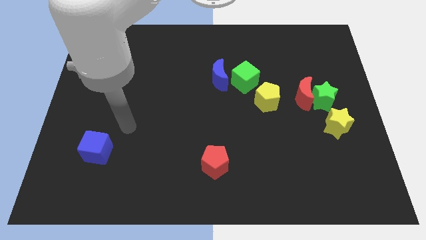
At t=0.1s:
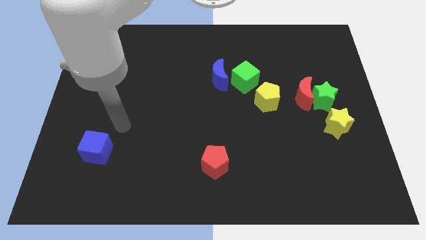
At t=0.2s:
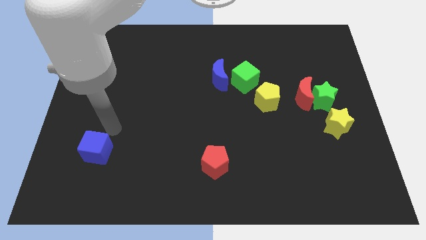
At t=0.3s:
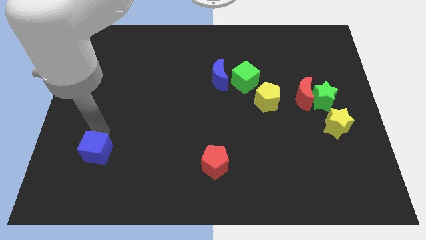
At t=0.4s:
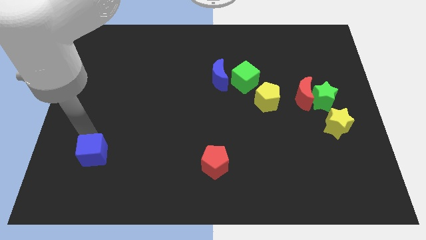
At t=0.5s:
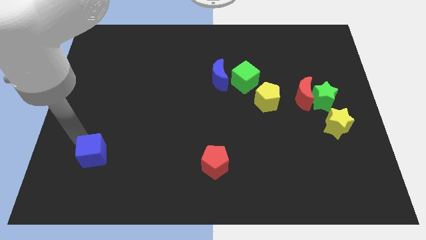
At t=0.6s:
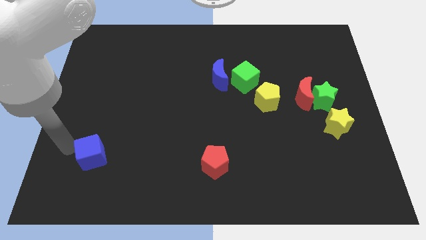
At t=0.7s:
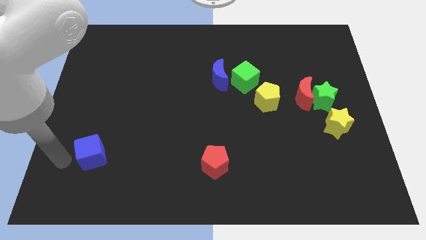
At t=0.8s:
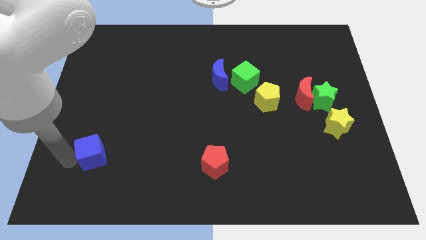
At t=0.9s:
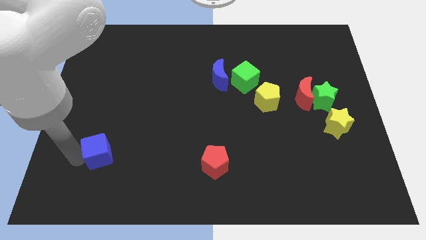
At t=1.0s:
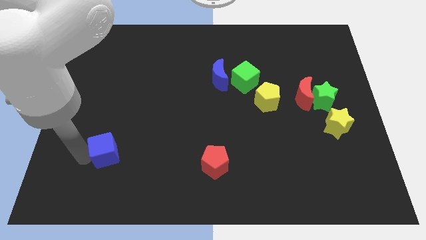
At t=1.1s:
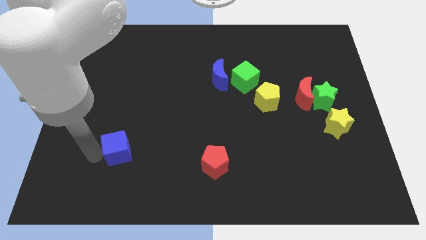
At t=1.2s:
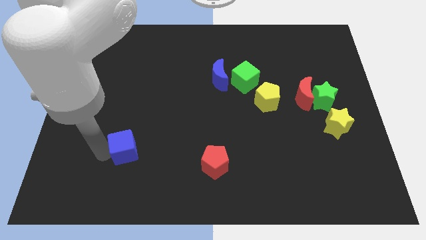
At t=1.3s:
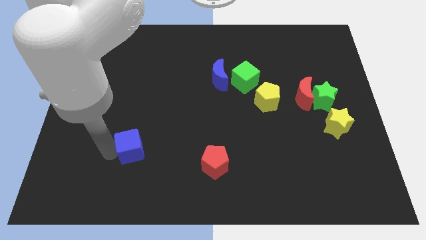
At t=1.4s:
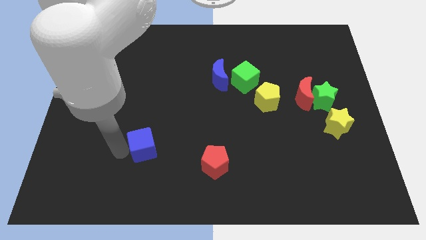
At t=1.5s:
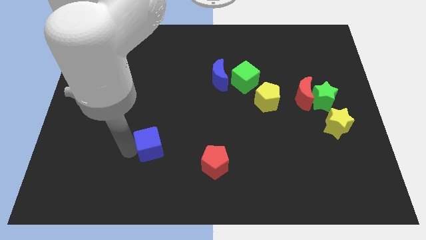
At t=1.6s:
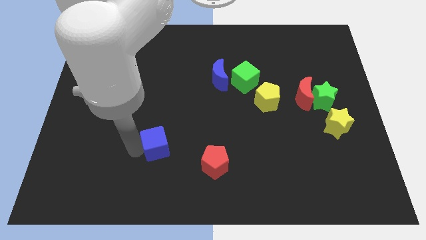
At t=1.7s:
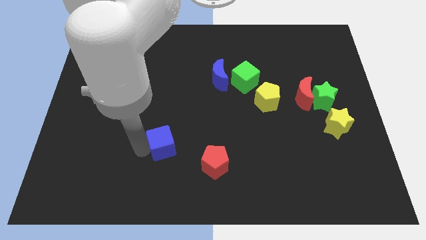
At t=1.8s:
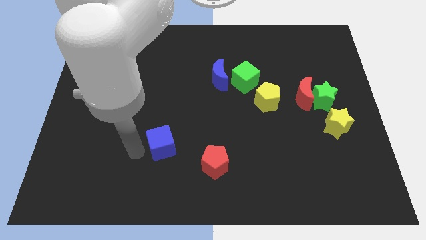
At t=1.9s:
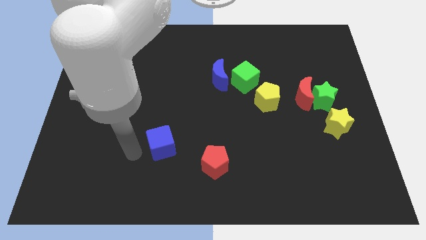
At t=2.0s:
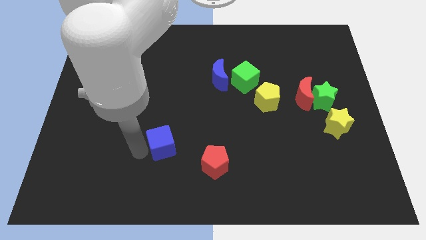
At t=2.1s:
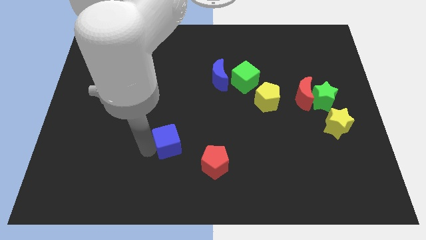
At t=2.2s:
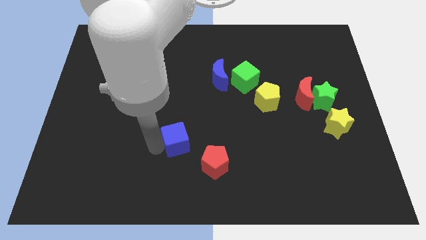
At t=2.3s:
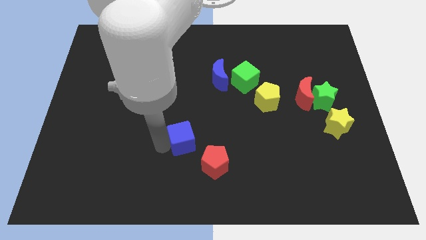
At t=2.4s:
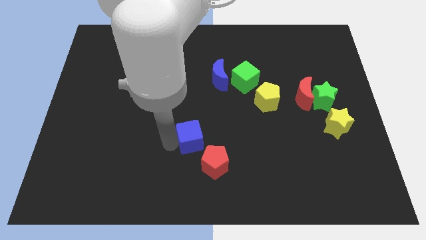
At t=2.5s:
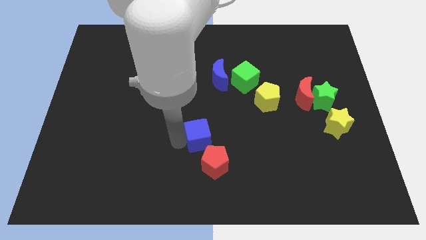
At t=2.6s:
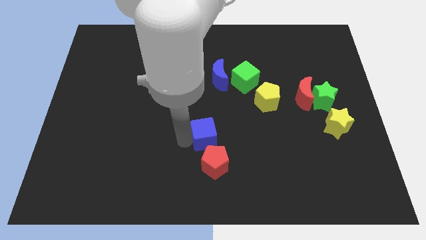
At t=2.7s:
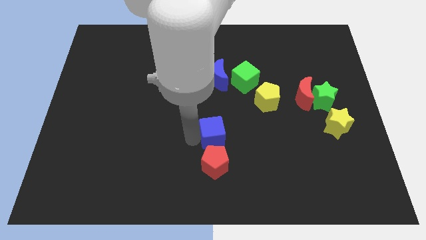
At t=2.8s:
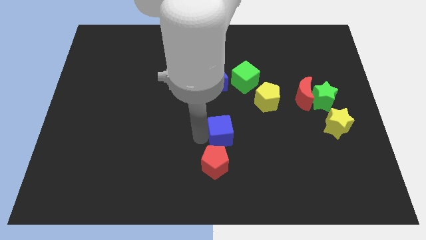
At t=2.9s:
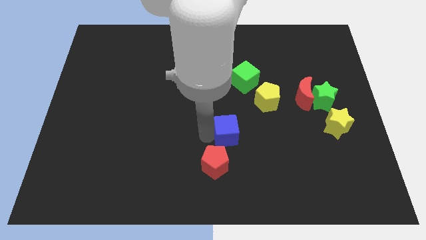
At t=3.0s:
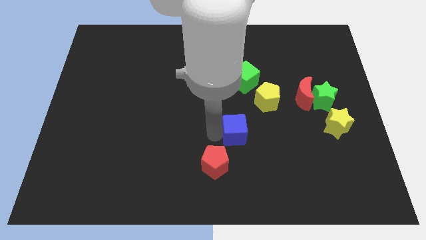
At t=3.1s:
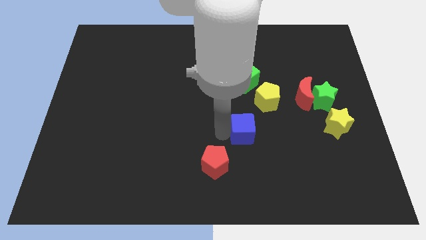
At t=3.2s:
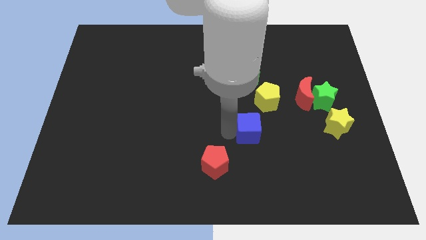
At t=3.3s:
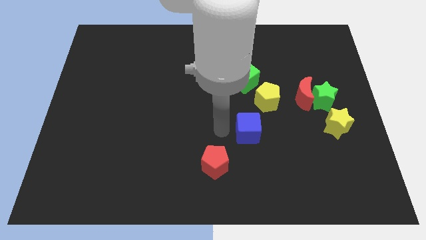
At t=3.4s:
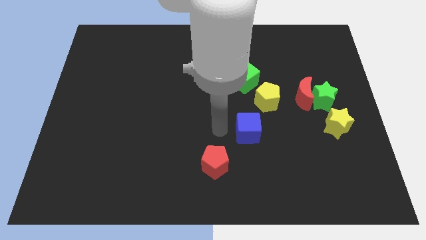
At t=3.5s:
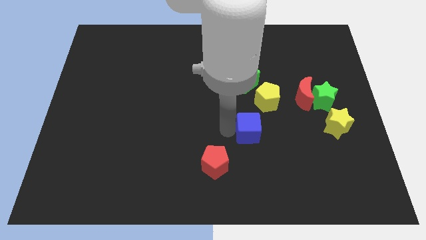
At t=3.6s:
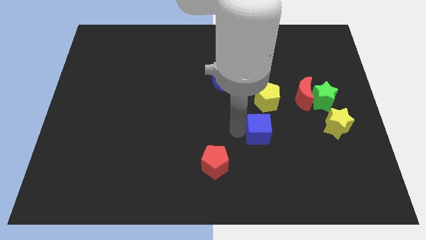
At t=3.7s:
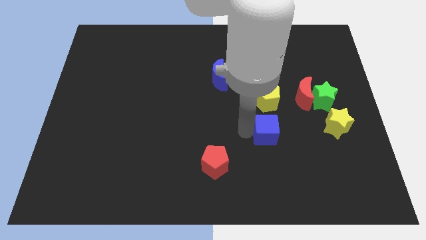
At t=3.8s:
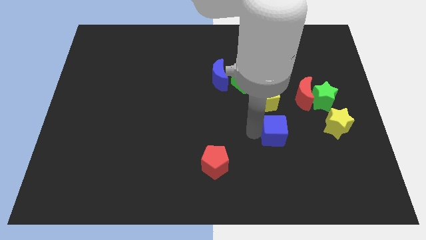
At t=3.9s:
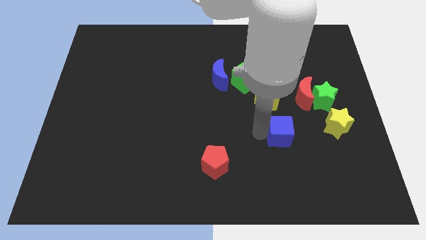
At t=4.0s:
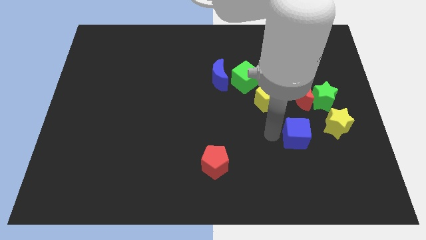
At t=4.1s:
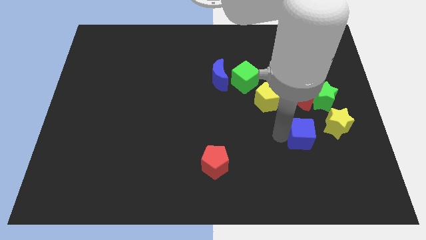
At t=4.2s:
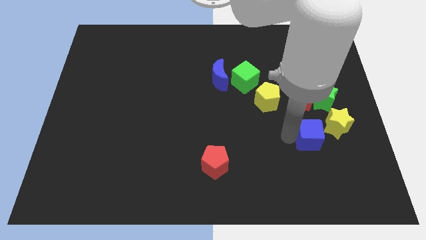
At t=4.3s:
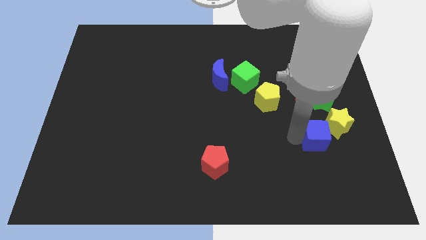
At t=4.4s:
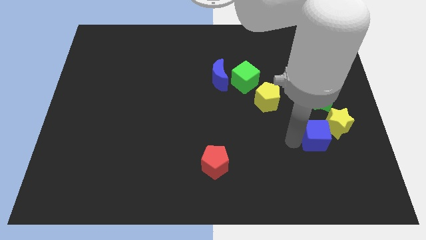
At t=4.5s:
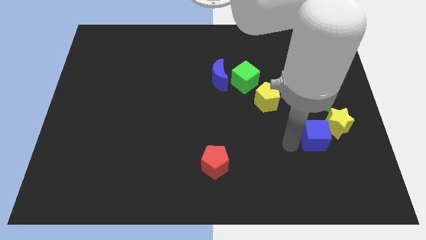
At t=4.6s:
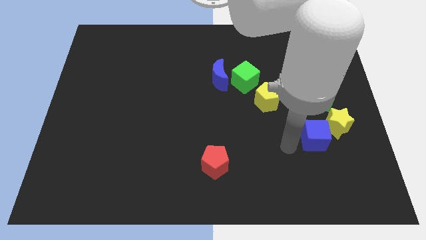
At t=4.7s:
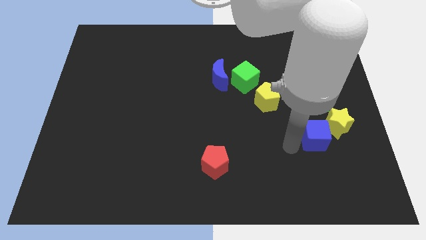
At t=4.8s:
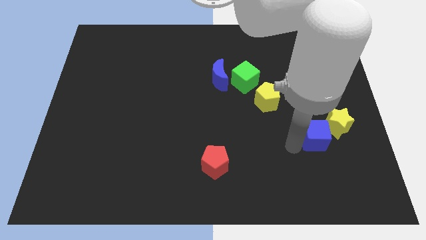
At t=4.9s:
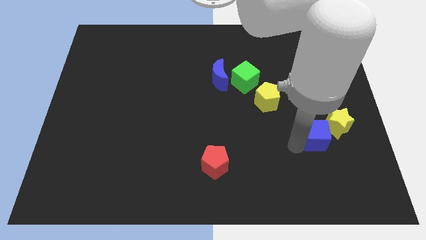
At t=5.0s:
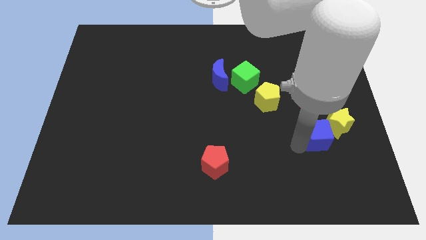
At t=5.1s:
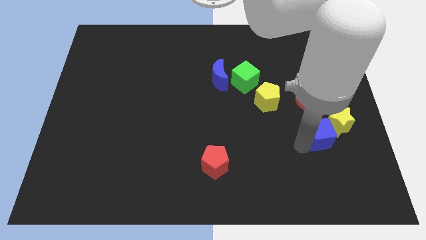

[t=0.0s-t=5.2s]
move the blue cube to the yellow star

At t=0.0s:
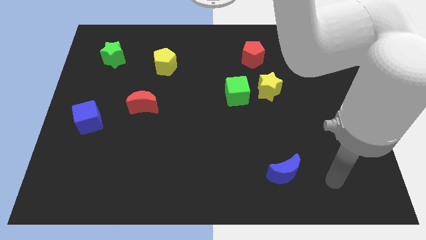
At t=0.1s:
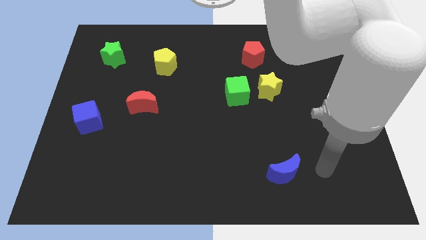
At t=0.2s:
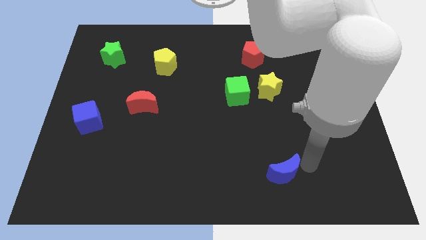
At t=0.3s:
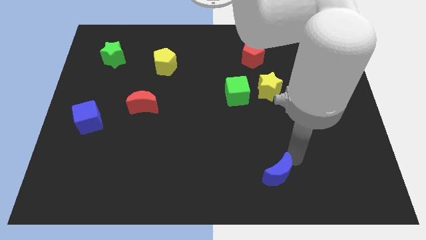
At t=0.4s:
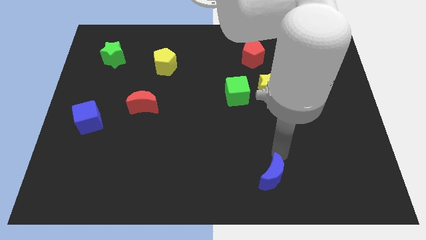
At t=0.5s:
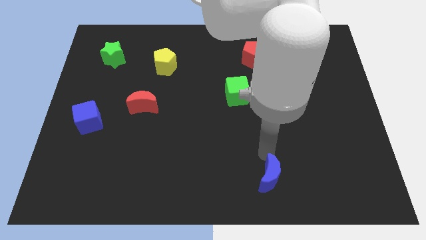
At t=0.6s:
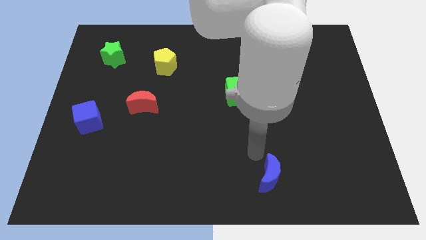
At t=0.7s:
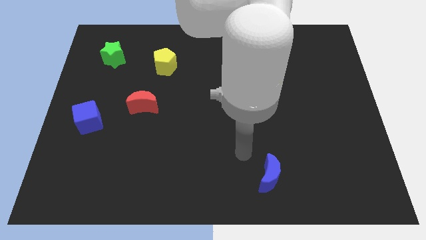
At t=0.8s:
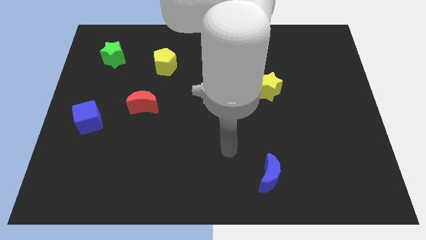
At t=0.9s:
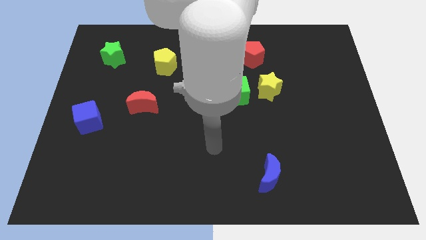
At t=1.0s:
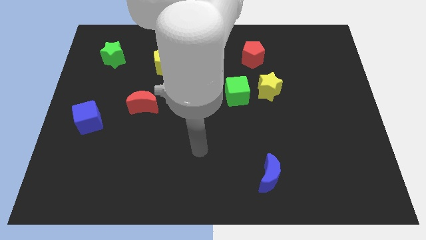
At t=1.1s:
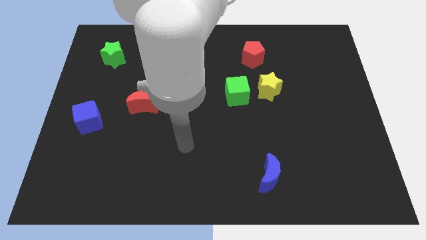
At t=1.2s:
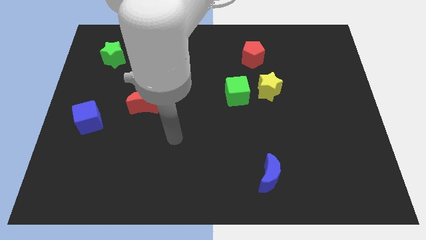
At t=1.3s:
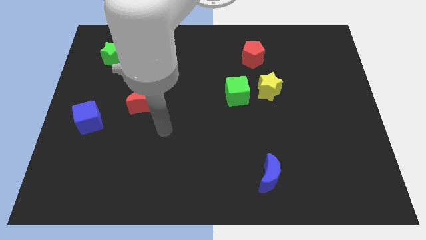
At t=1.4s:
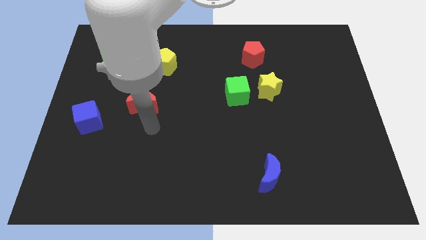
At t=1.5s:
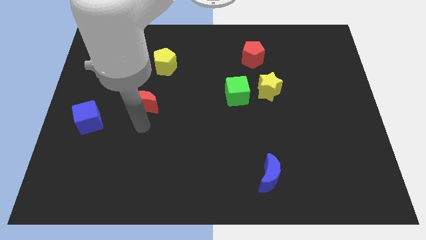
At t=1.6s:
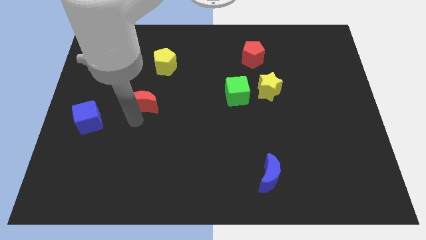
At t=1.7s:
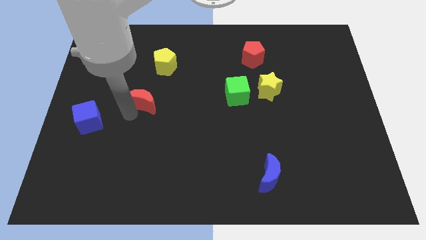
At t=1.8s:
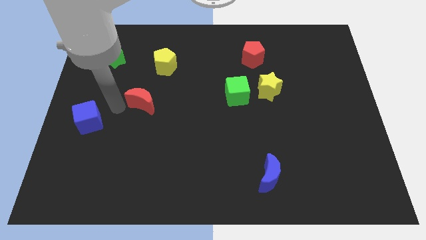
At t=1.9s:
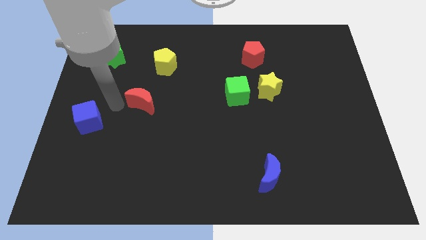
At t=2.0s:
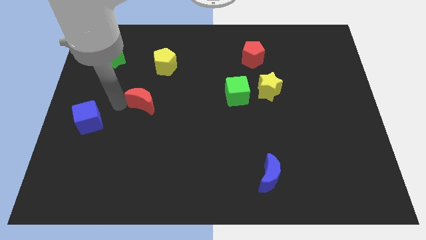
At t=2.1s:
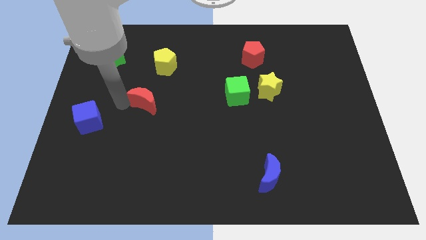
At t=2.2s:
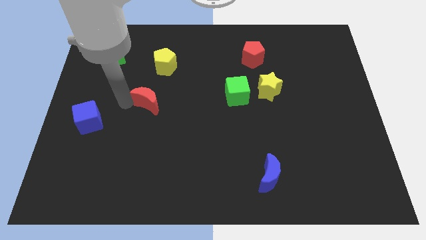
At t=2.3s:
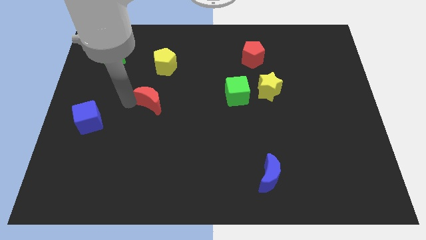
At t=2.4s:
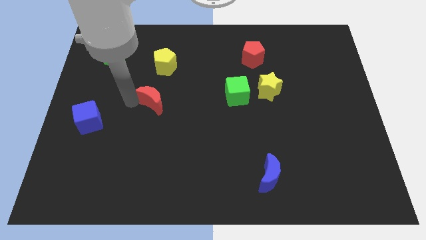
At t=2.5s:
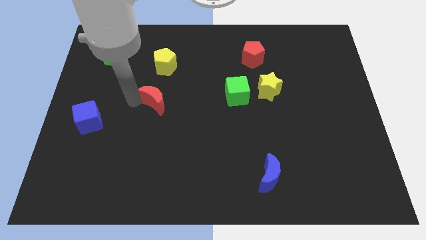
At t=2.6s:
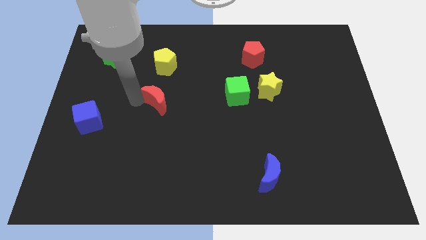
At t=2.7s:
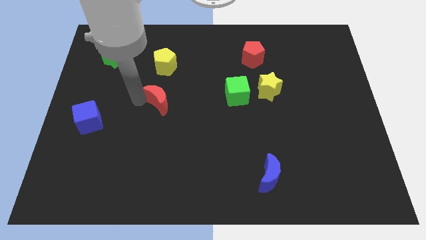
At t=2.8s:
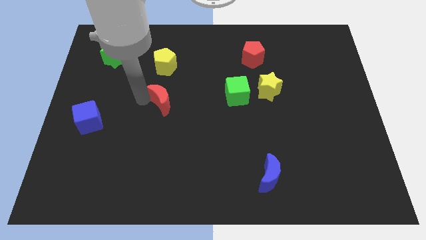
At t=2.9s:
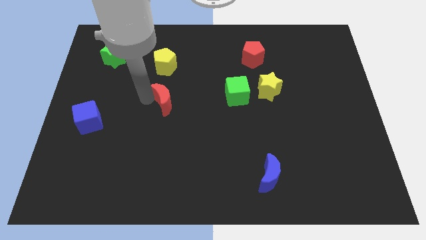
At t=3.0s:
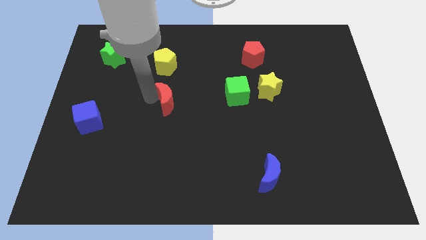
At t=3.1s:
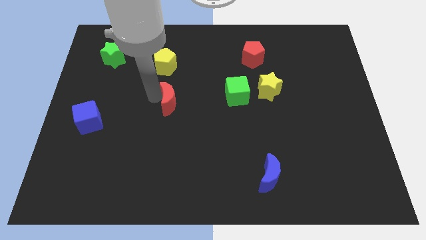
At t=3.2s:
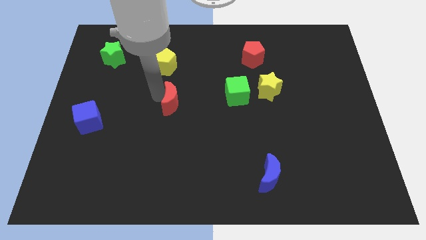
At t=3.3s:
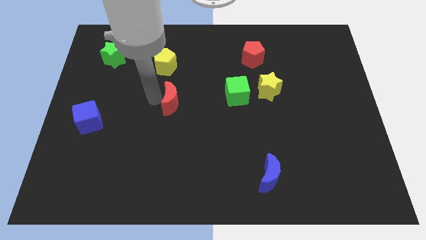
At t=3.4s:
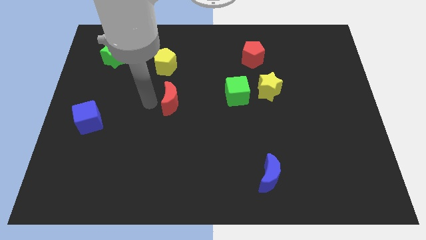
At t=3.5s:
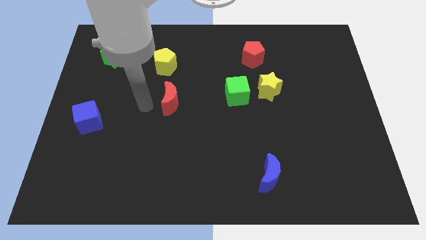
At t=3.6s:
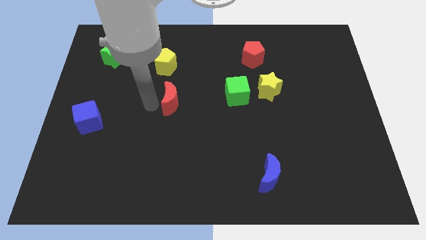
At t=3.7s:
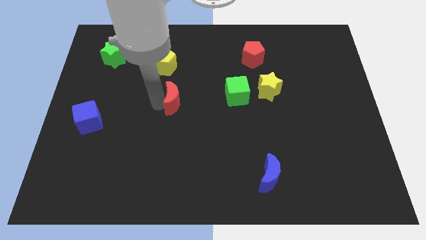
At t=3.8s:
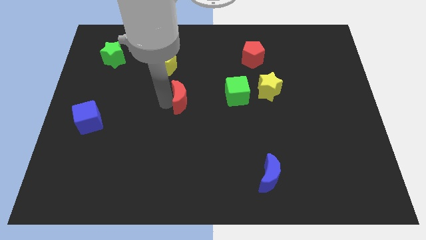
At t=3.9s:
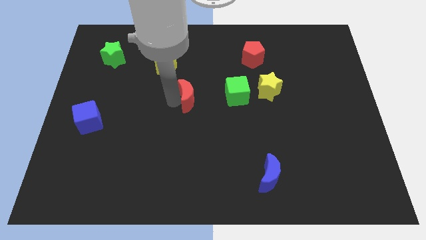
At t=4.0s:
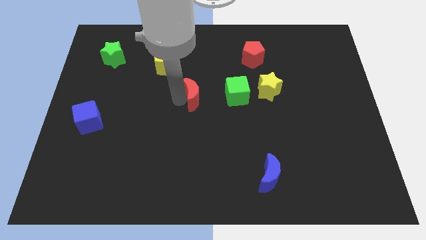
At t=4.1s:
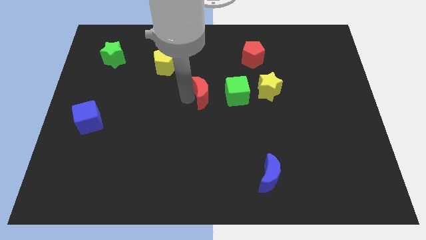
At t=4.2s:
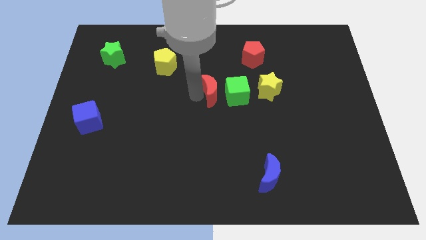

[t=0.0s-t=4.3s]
push the red moon close to the green cube
